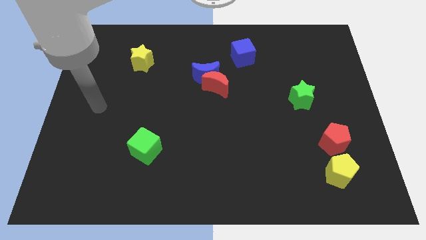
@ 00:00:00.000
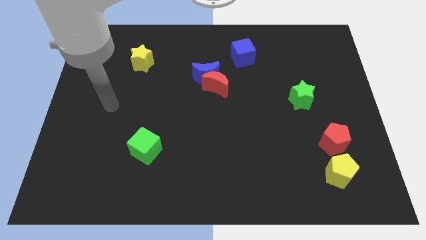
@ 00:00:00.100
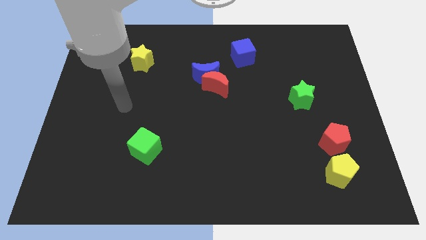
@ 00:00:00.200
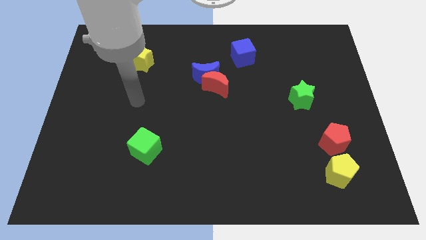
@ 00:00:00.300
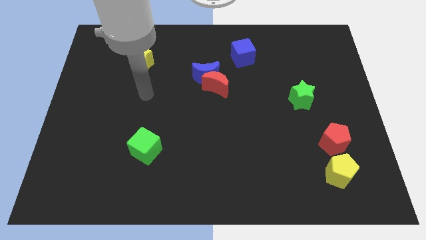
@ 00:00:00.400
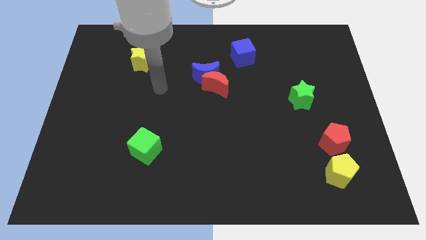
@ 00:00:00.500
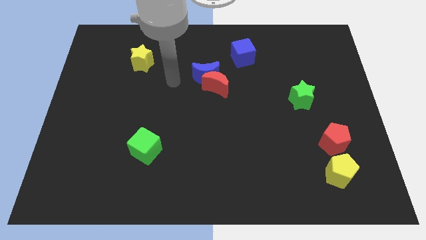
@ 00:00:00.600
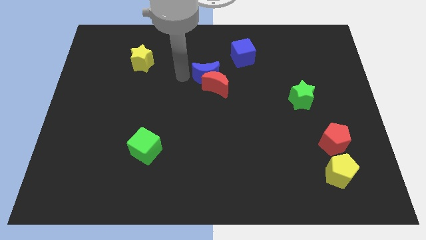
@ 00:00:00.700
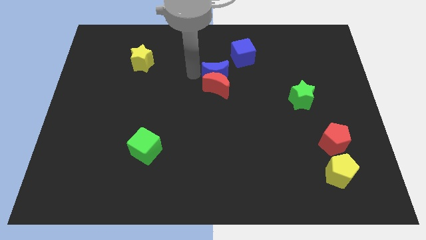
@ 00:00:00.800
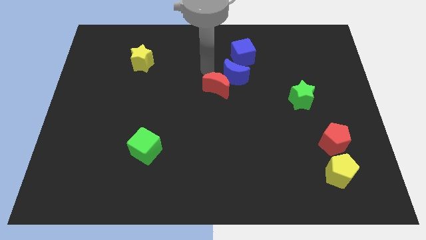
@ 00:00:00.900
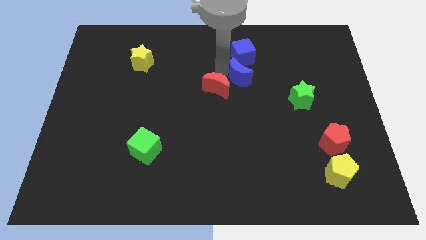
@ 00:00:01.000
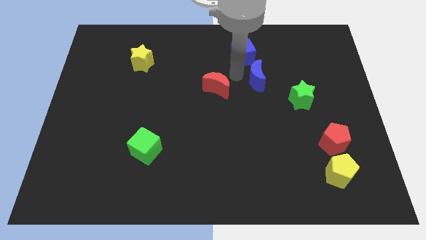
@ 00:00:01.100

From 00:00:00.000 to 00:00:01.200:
pull the red moon apart from the blue moon

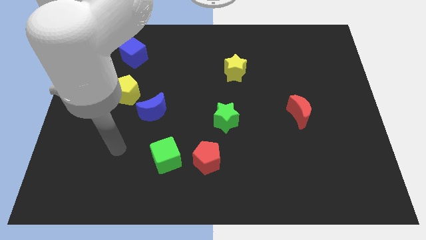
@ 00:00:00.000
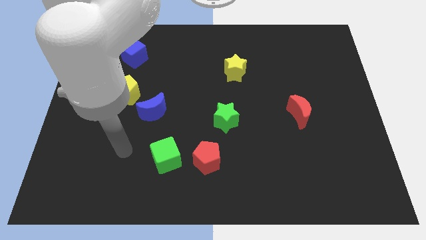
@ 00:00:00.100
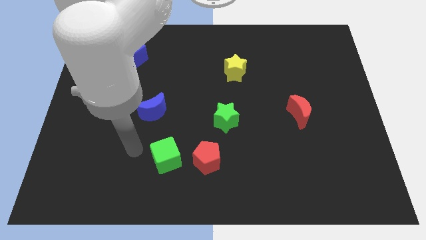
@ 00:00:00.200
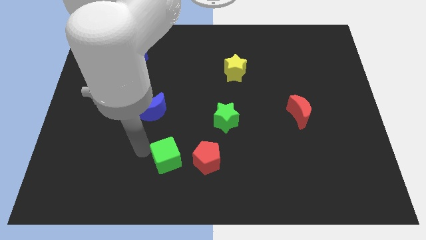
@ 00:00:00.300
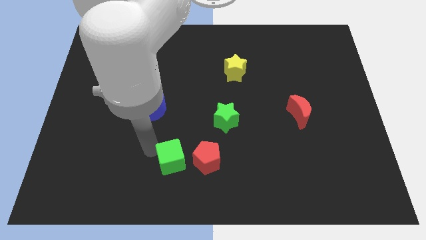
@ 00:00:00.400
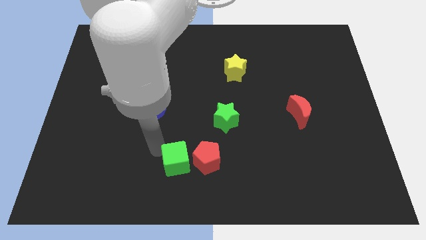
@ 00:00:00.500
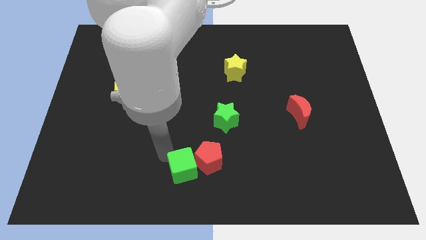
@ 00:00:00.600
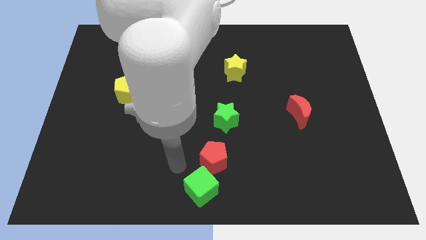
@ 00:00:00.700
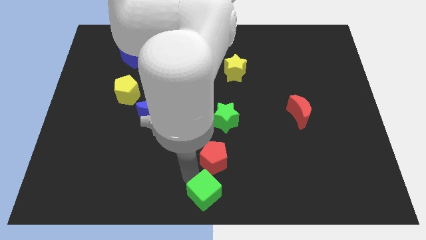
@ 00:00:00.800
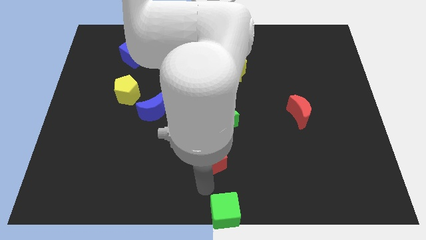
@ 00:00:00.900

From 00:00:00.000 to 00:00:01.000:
separate the red pentagon from the green cube

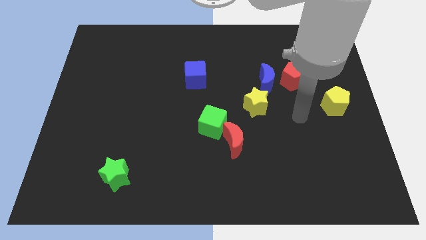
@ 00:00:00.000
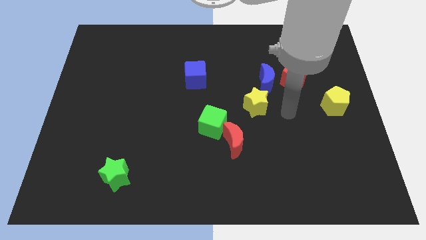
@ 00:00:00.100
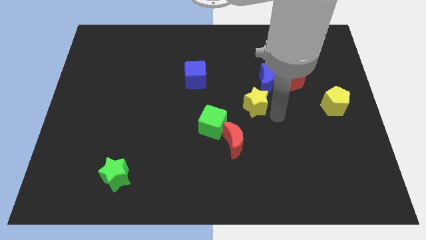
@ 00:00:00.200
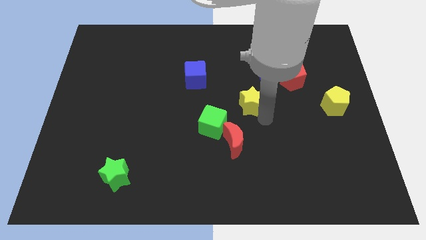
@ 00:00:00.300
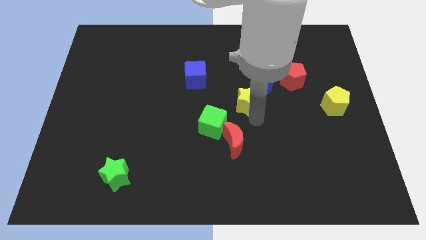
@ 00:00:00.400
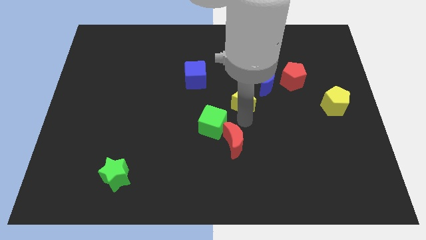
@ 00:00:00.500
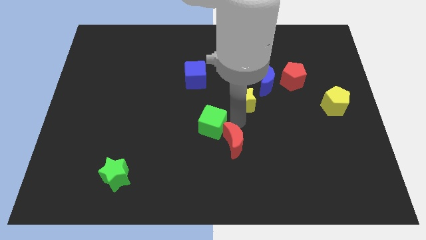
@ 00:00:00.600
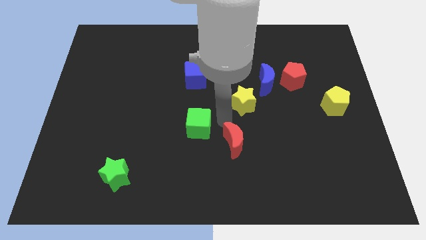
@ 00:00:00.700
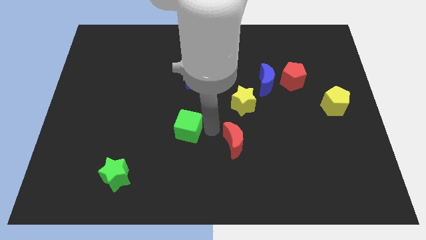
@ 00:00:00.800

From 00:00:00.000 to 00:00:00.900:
move the red moon away from the green cube

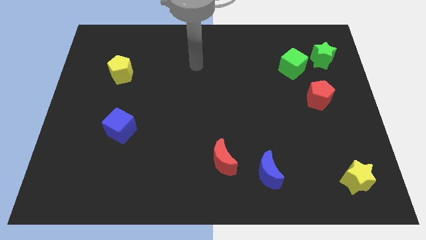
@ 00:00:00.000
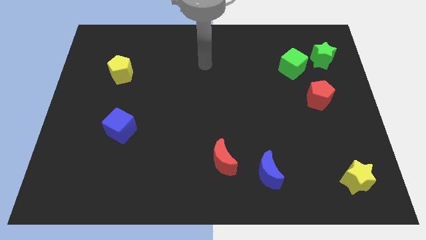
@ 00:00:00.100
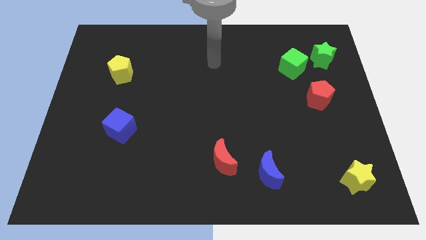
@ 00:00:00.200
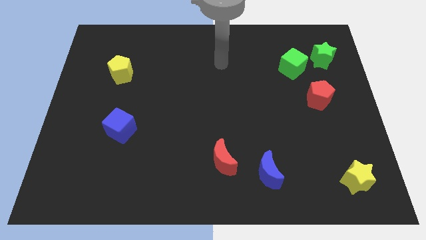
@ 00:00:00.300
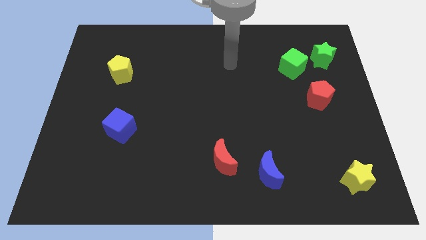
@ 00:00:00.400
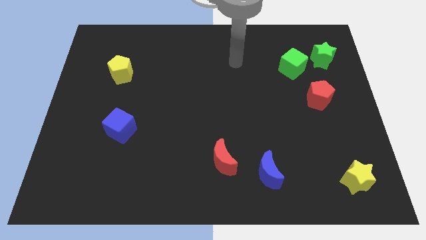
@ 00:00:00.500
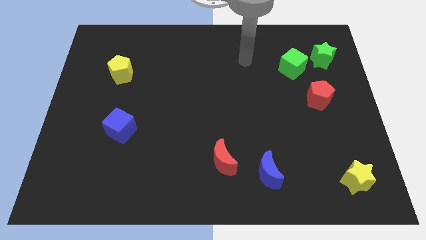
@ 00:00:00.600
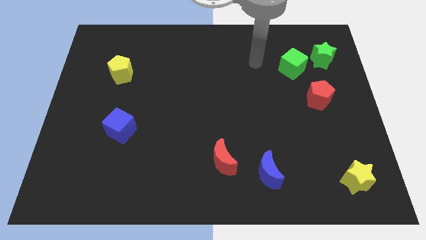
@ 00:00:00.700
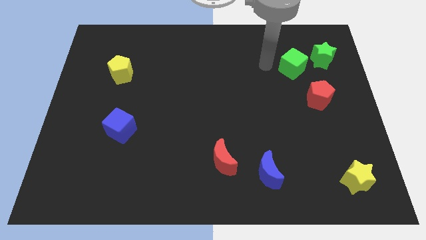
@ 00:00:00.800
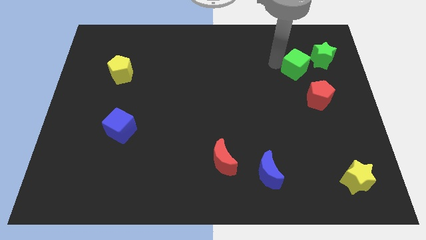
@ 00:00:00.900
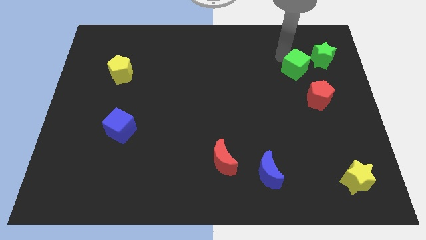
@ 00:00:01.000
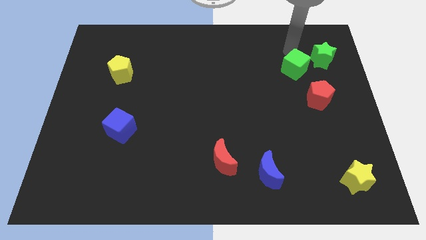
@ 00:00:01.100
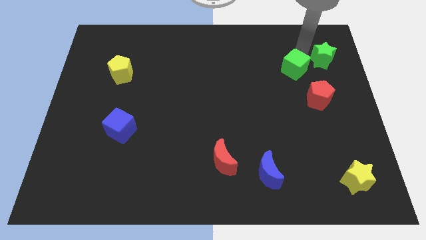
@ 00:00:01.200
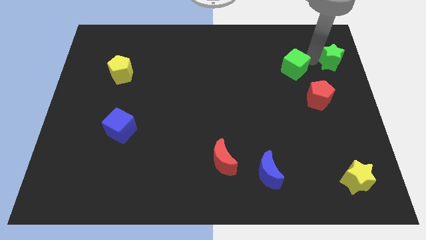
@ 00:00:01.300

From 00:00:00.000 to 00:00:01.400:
pull the green cube apart from the green star

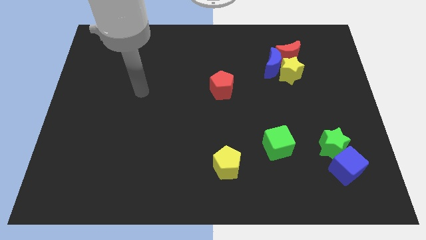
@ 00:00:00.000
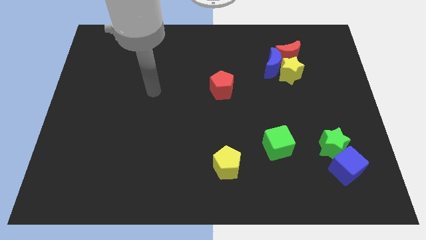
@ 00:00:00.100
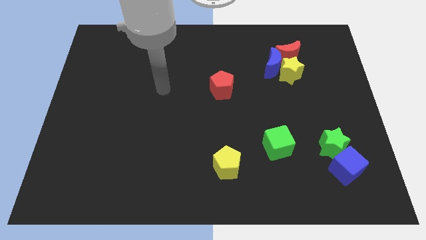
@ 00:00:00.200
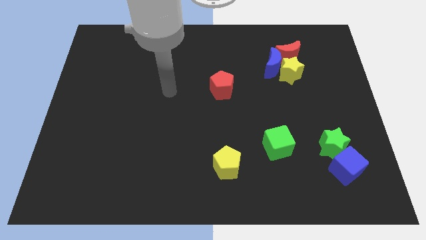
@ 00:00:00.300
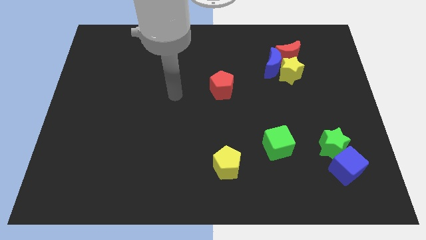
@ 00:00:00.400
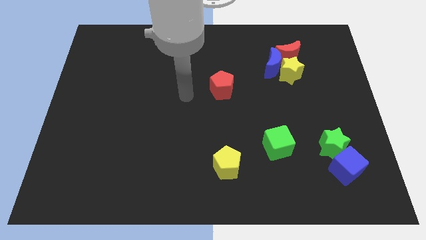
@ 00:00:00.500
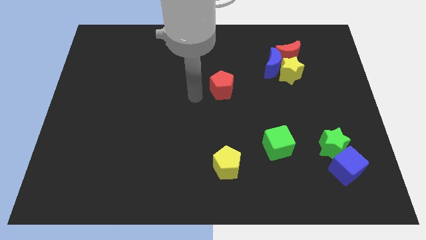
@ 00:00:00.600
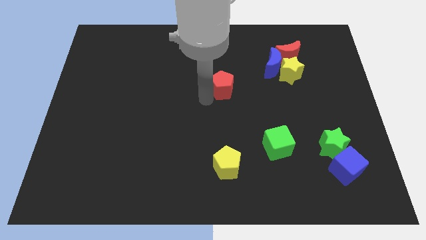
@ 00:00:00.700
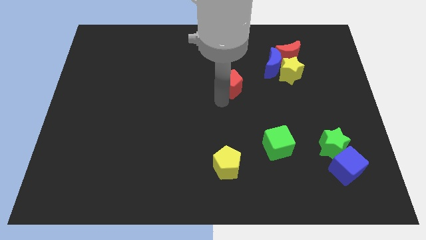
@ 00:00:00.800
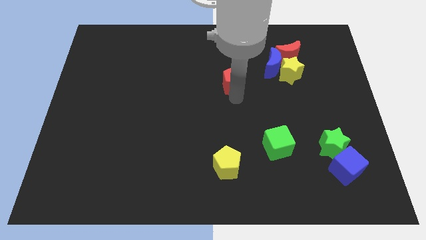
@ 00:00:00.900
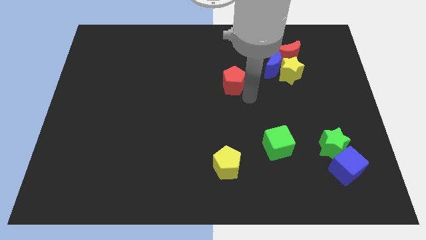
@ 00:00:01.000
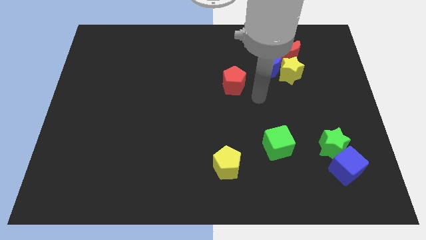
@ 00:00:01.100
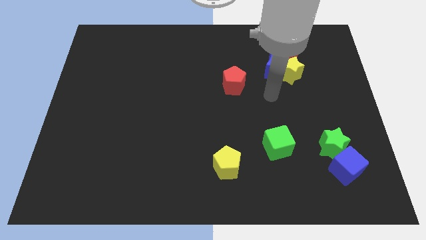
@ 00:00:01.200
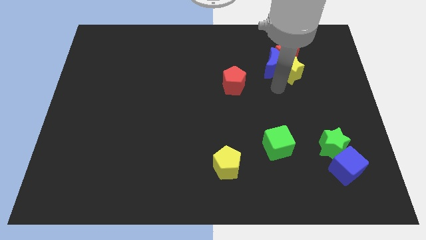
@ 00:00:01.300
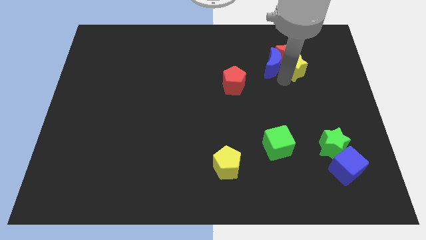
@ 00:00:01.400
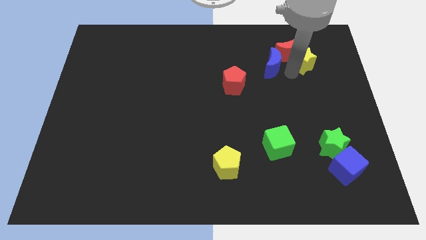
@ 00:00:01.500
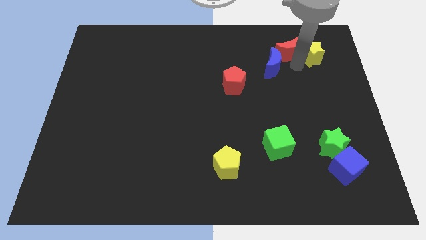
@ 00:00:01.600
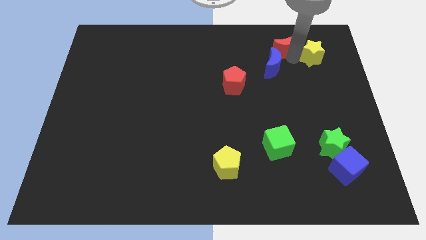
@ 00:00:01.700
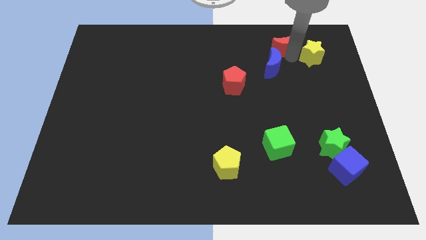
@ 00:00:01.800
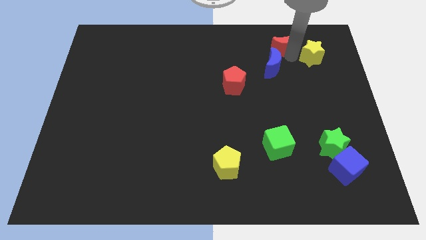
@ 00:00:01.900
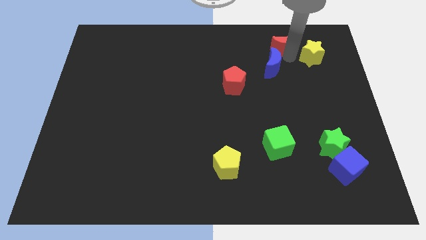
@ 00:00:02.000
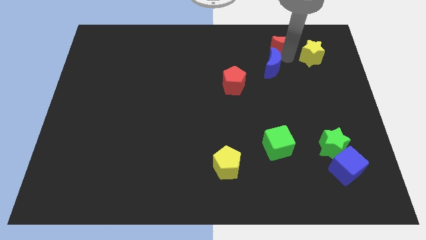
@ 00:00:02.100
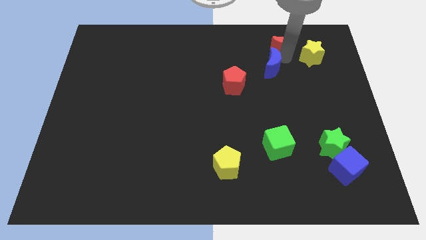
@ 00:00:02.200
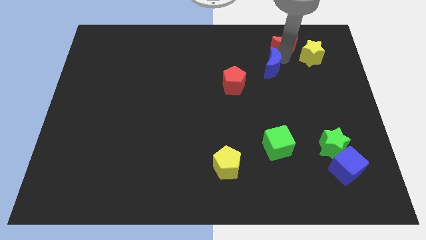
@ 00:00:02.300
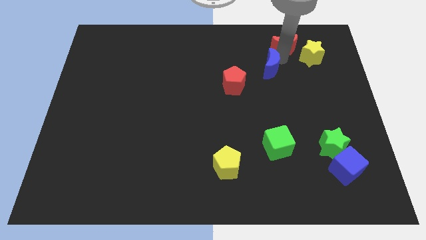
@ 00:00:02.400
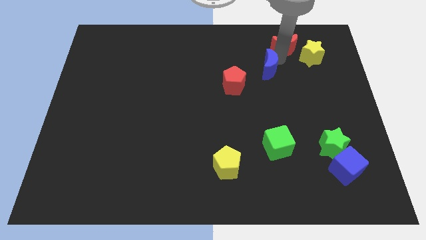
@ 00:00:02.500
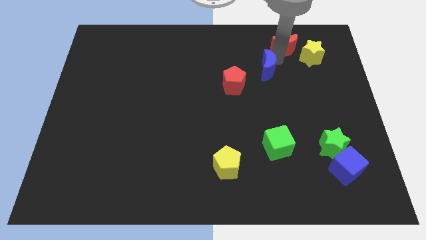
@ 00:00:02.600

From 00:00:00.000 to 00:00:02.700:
move the blue moon away from the yellow star and red moon

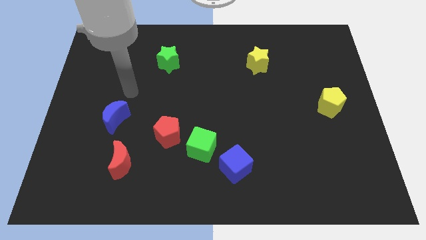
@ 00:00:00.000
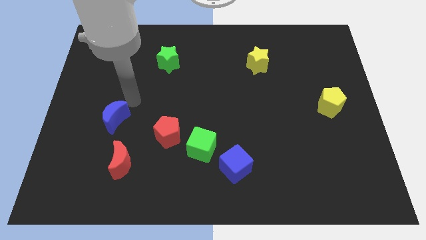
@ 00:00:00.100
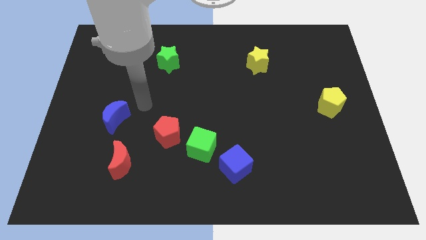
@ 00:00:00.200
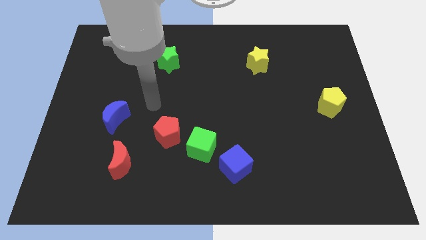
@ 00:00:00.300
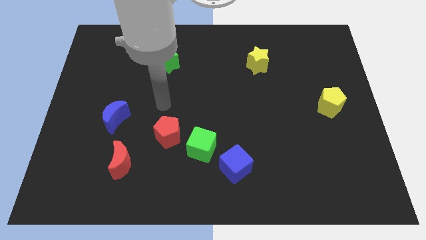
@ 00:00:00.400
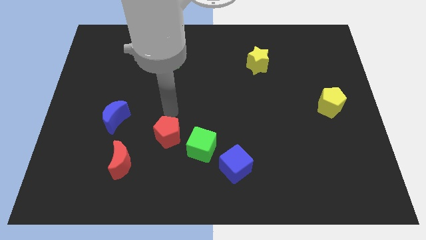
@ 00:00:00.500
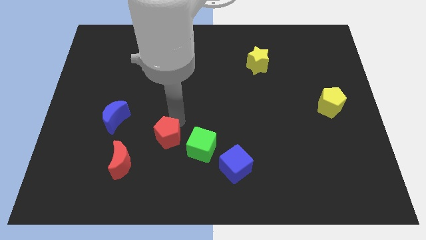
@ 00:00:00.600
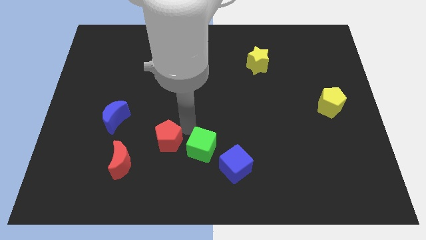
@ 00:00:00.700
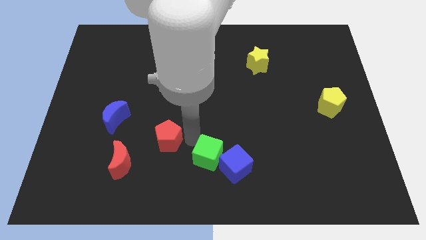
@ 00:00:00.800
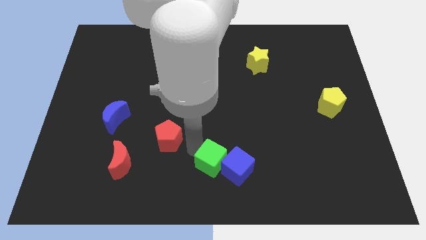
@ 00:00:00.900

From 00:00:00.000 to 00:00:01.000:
pull the red pentagon apart from the green cube

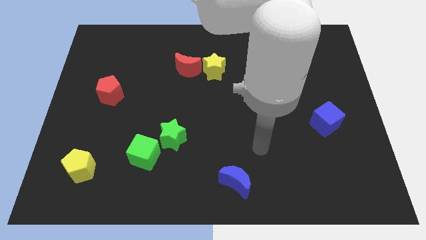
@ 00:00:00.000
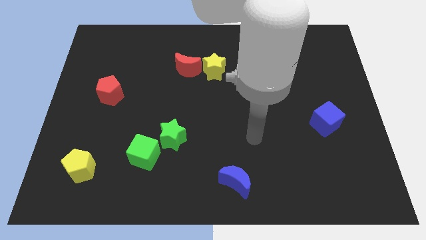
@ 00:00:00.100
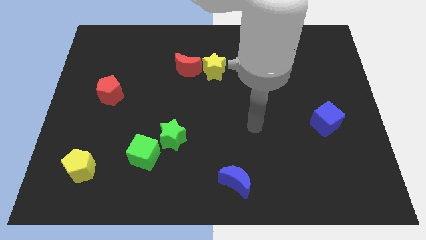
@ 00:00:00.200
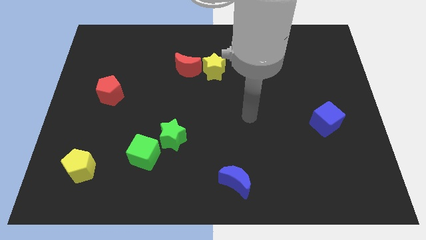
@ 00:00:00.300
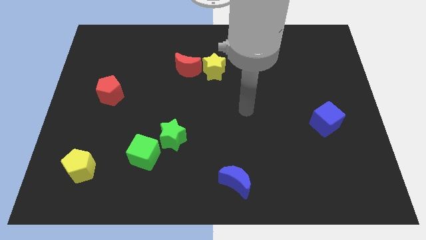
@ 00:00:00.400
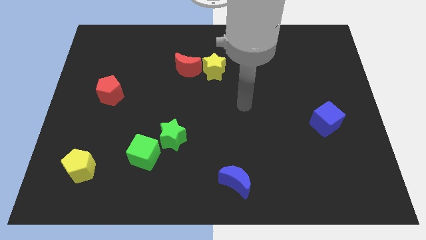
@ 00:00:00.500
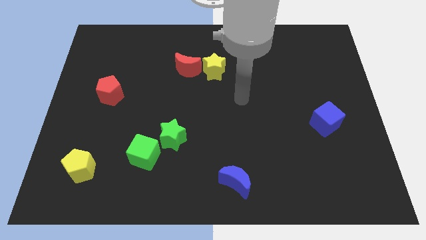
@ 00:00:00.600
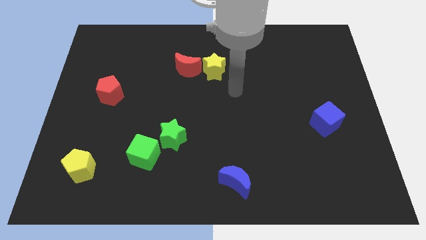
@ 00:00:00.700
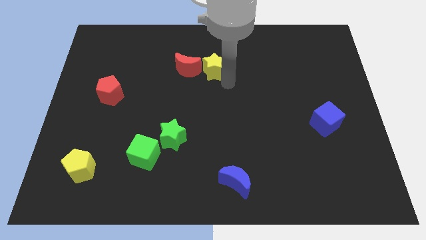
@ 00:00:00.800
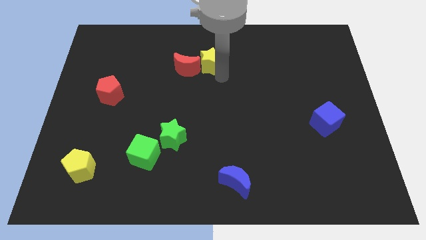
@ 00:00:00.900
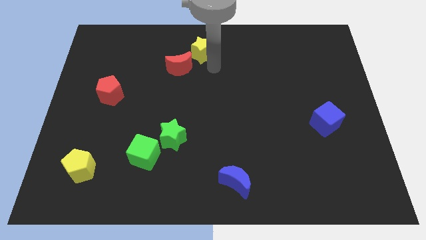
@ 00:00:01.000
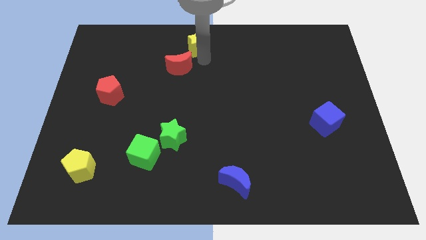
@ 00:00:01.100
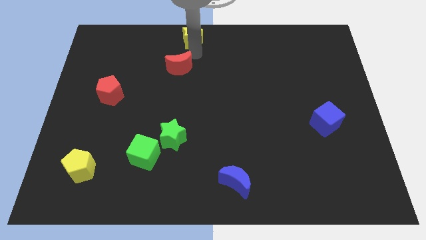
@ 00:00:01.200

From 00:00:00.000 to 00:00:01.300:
separate the red moon from the yellow star
